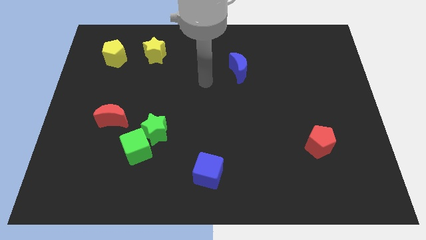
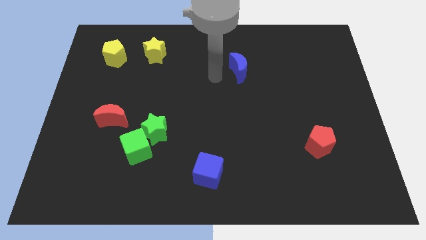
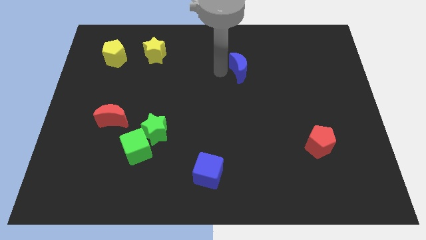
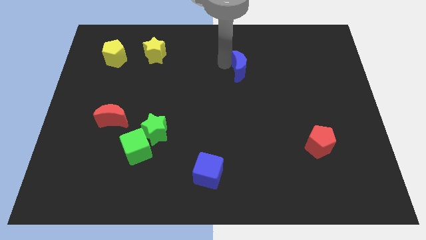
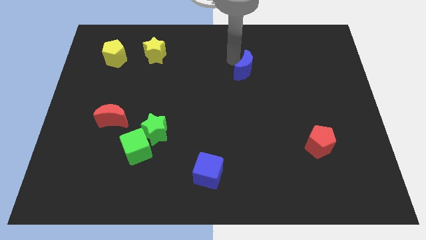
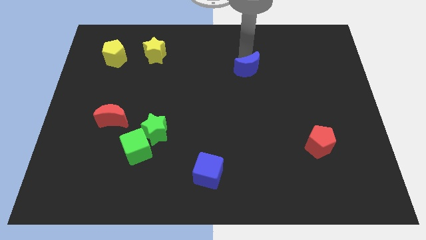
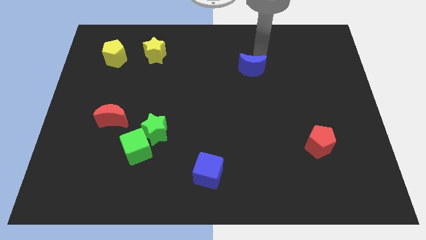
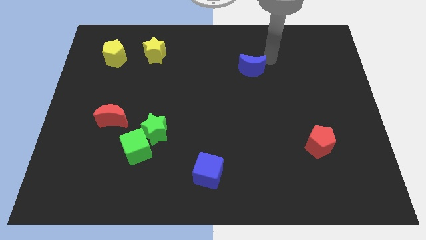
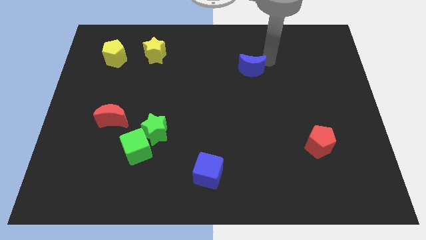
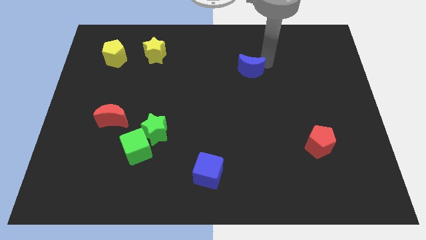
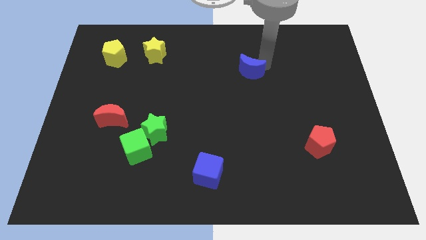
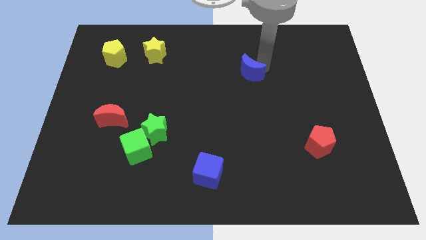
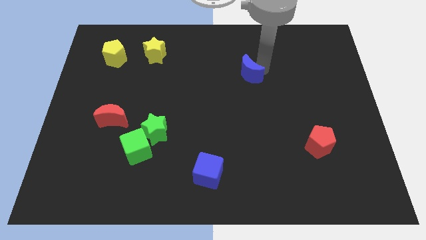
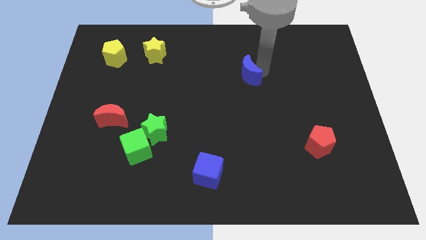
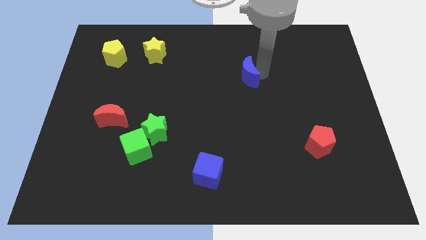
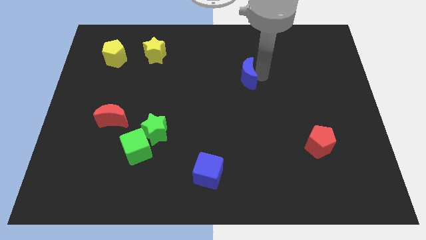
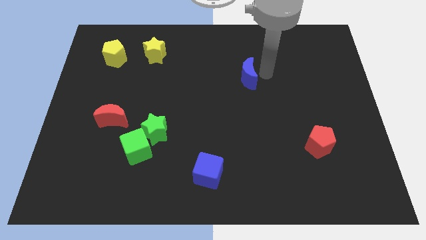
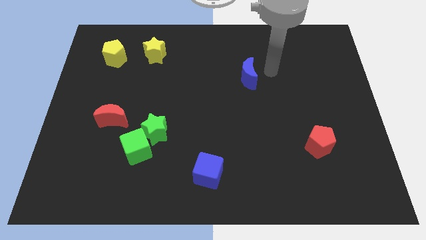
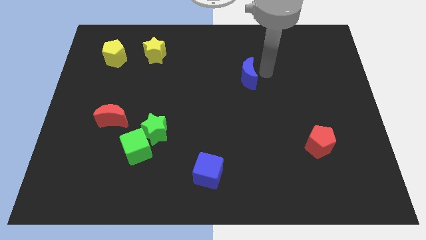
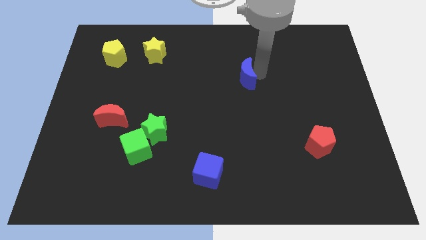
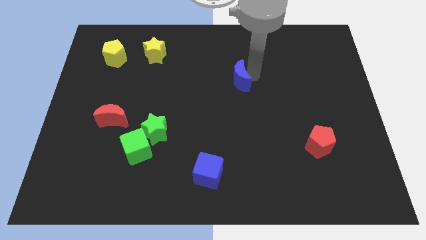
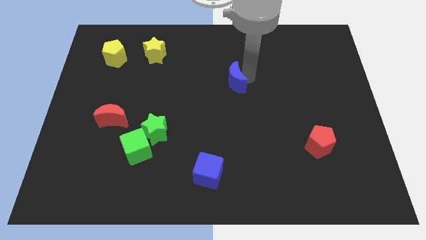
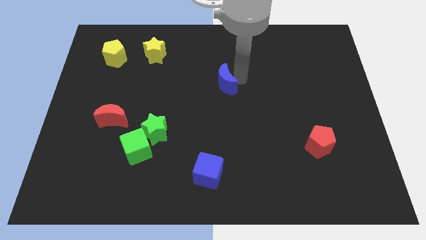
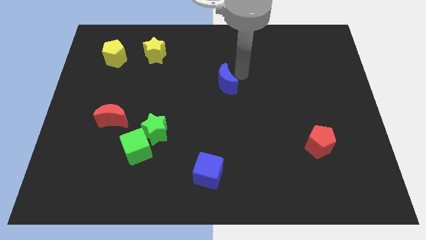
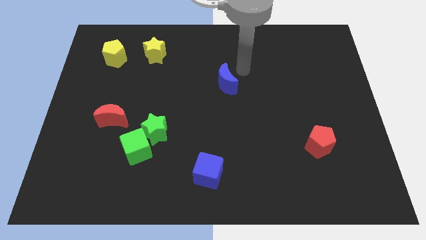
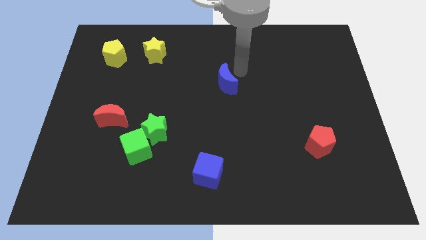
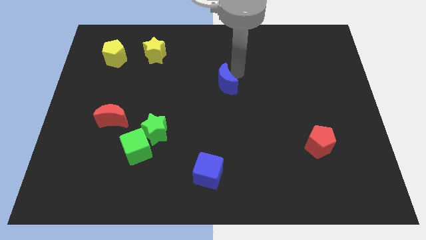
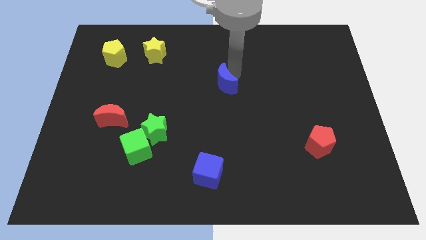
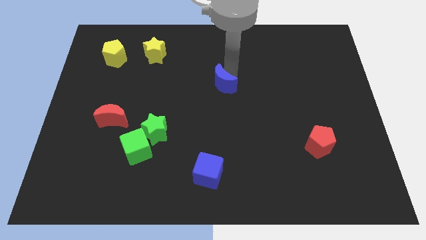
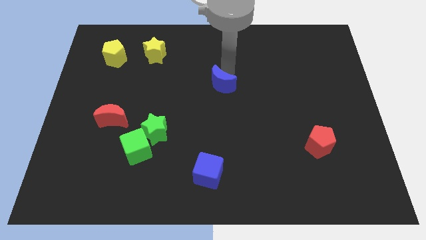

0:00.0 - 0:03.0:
push the blue moon diagonally downwards and to the left a little bit

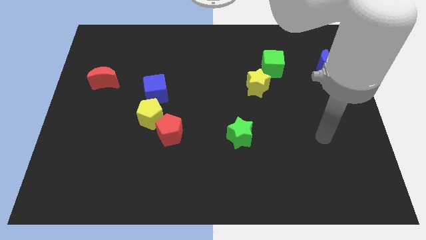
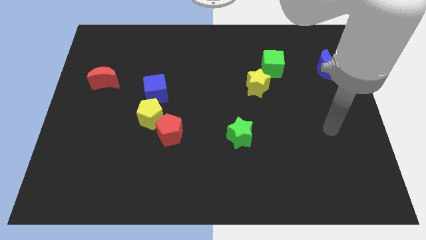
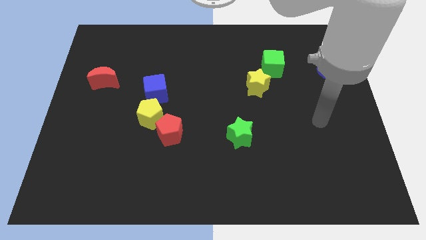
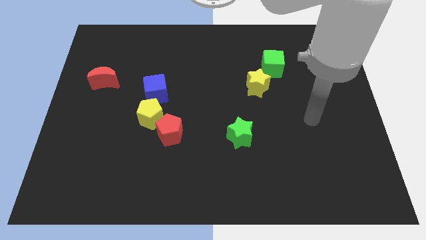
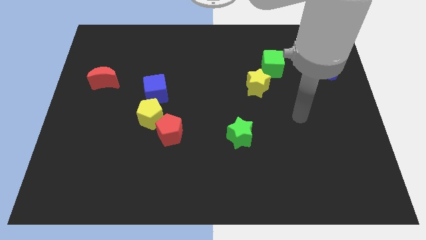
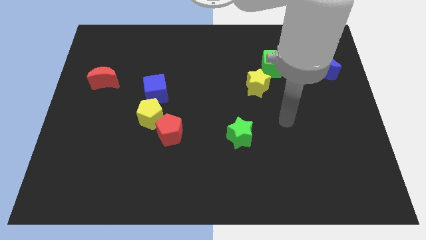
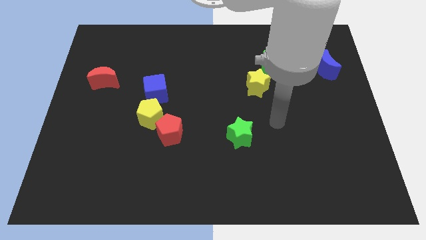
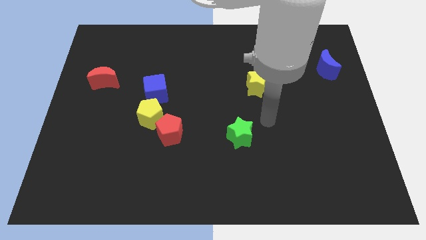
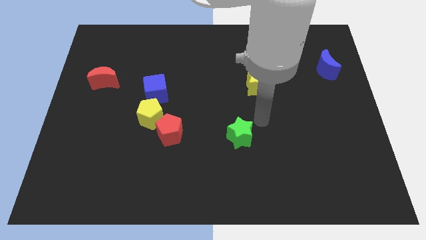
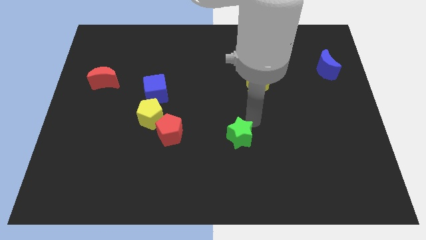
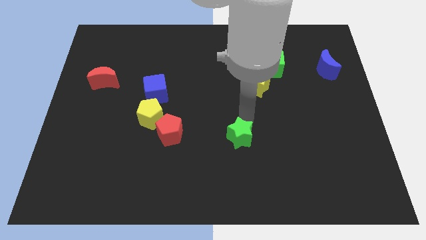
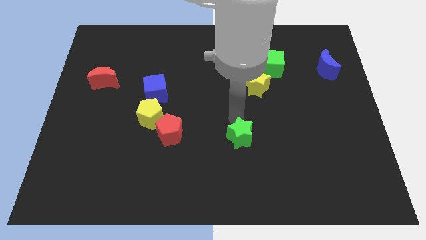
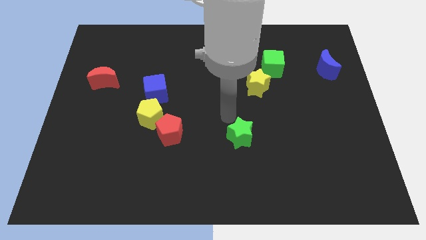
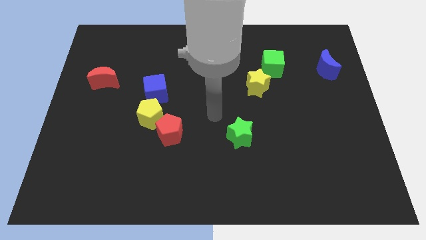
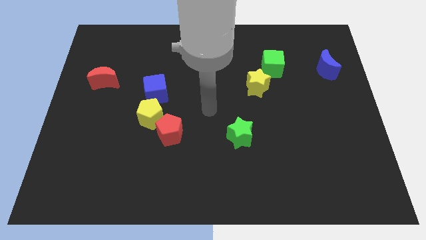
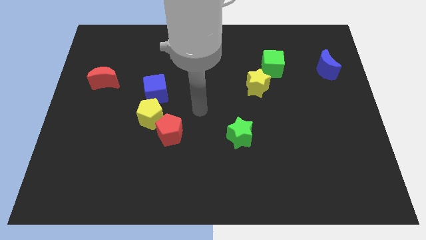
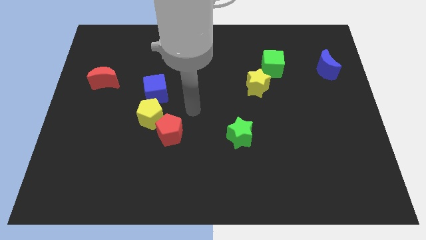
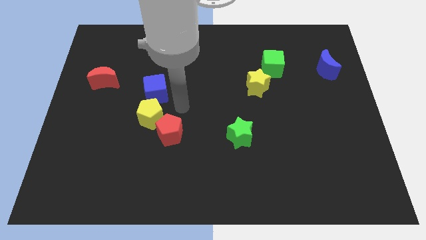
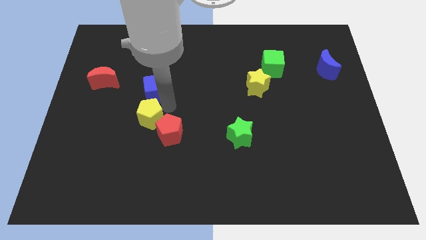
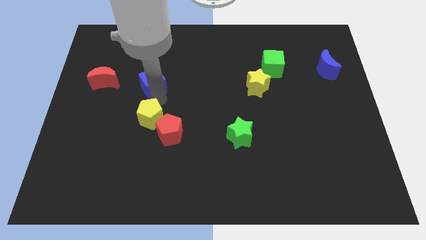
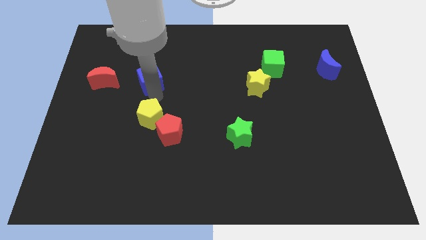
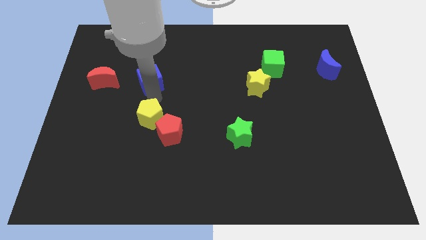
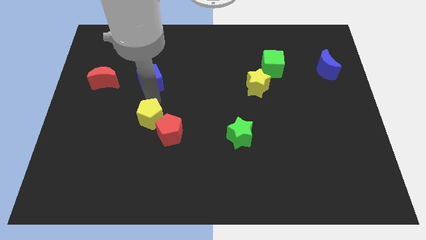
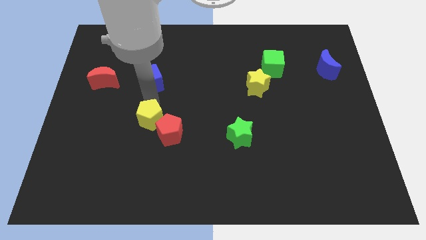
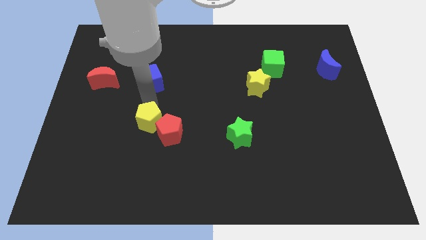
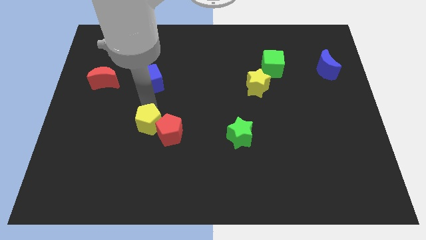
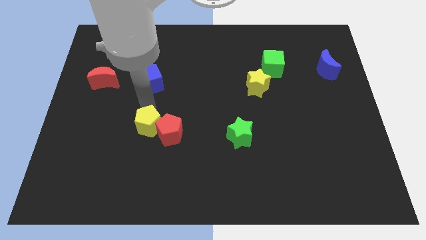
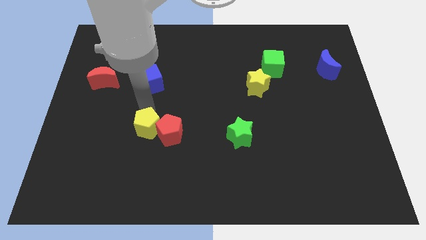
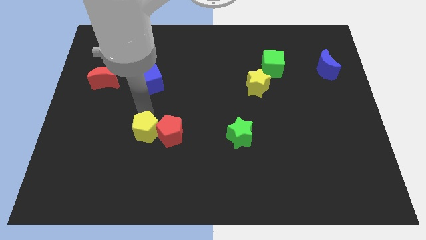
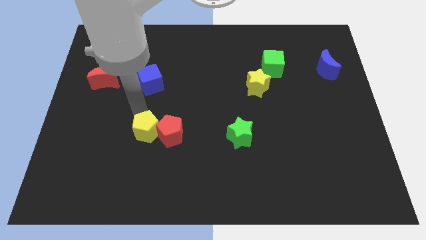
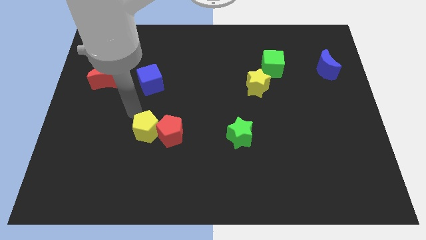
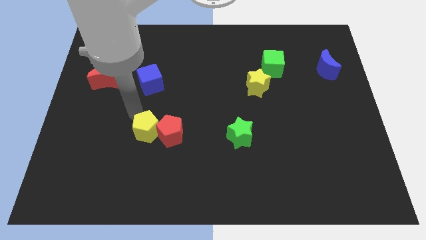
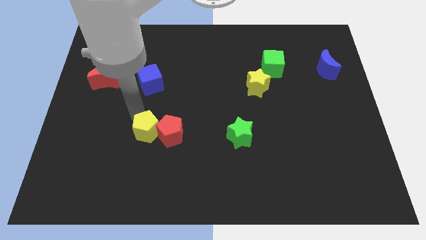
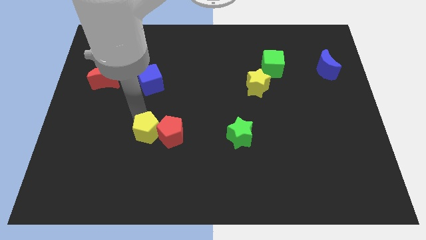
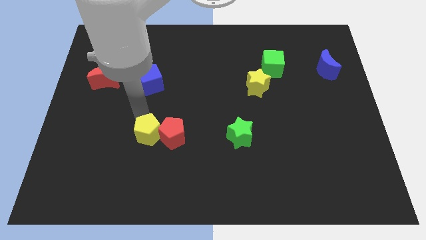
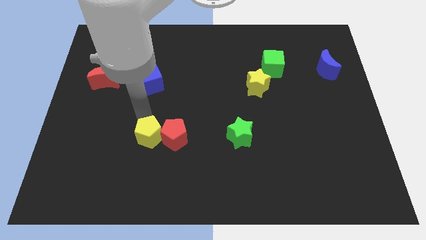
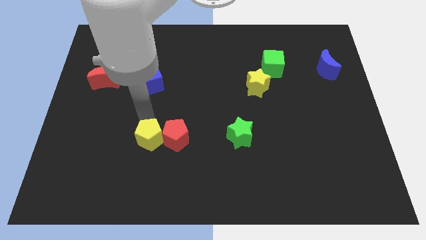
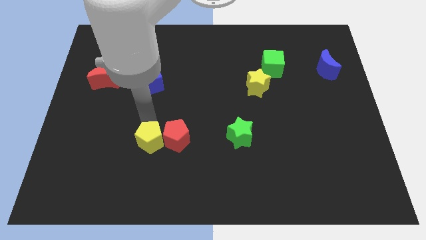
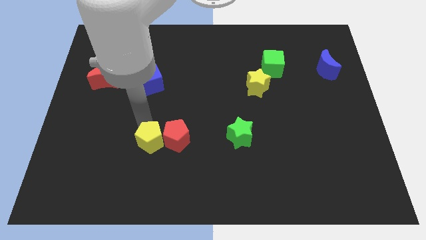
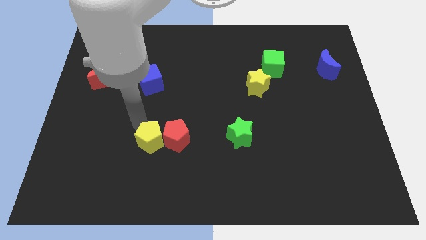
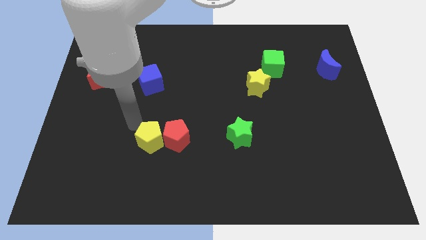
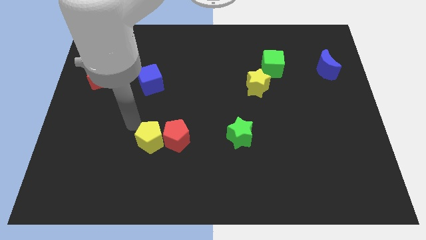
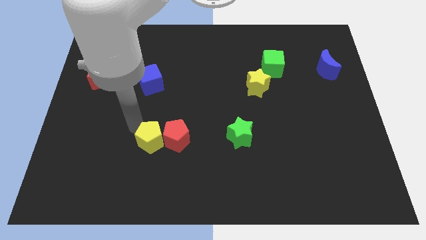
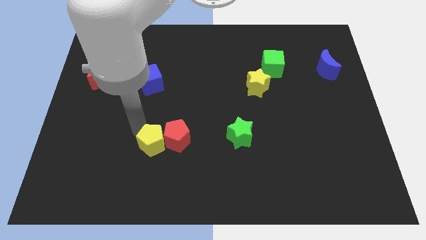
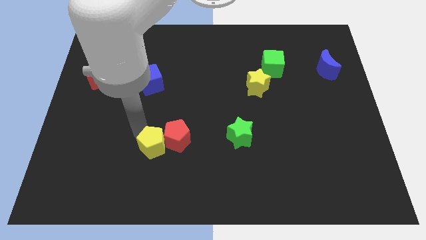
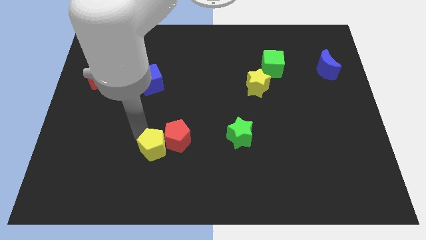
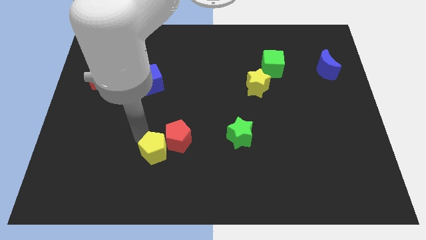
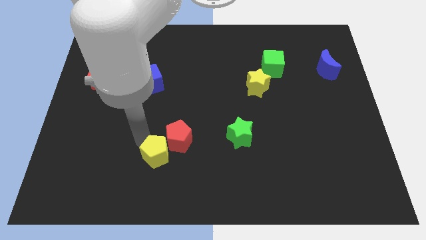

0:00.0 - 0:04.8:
slightly move the yellow pentagon down and to the right diagonally
